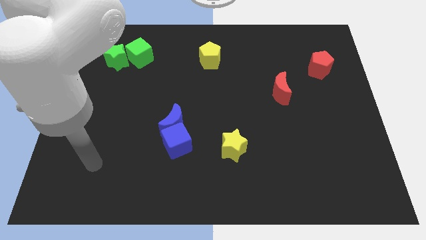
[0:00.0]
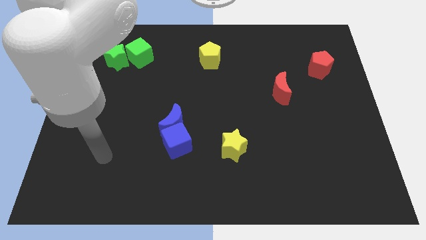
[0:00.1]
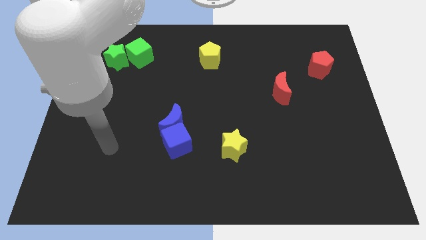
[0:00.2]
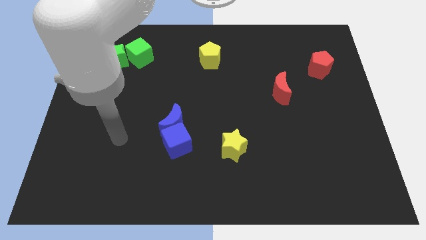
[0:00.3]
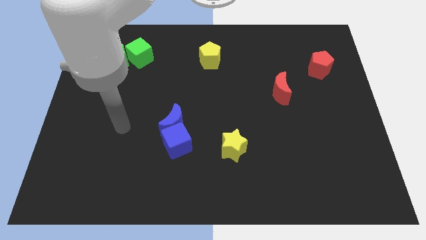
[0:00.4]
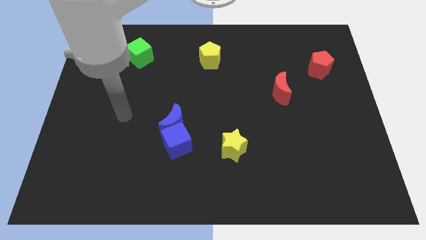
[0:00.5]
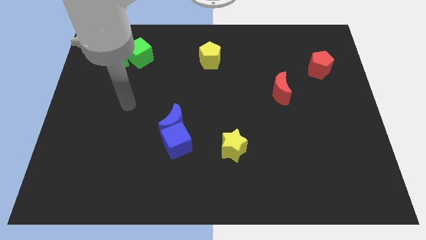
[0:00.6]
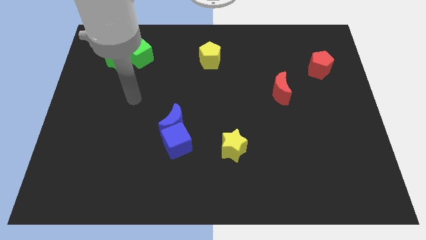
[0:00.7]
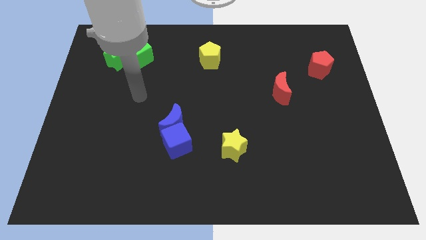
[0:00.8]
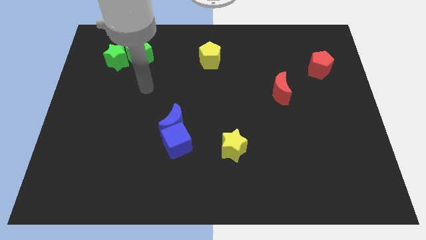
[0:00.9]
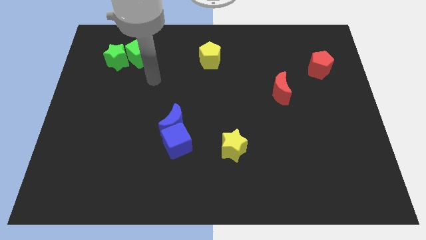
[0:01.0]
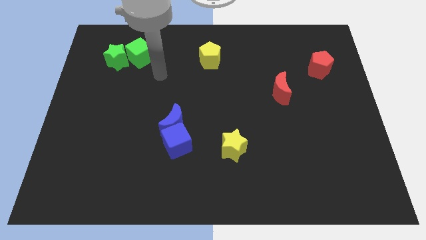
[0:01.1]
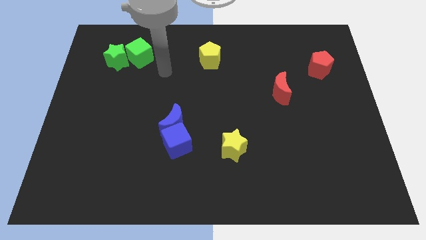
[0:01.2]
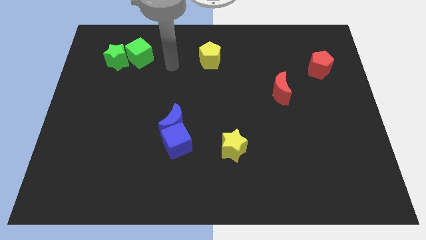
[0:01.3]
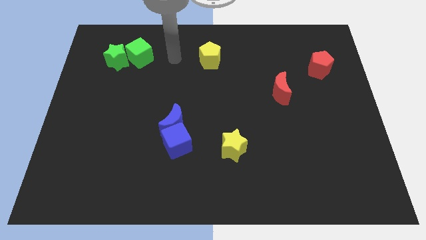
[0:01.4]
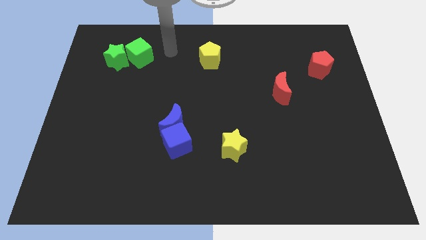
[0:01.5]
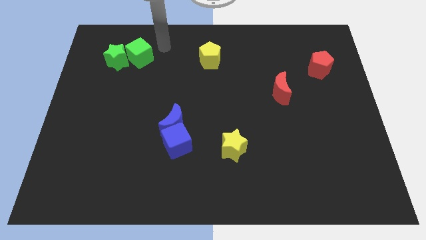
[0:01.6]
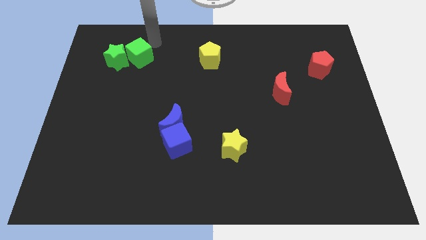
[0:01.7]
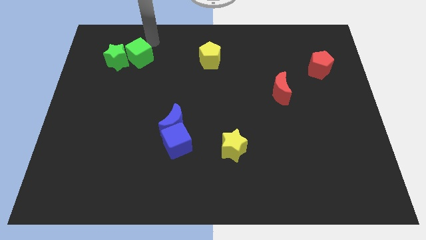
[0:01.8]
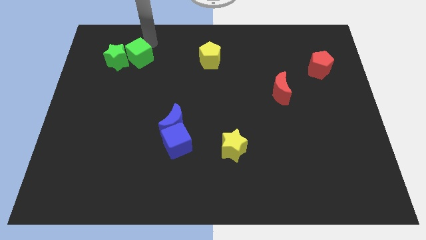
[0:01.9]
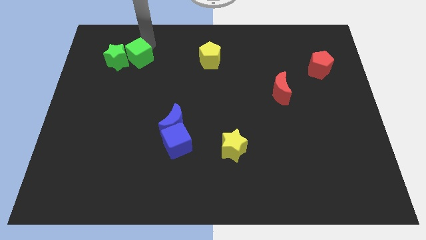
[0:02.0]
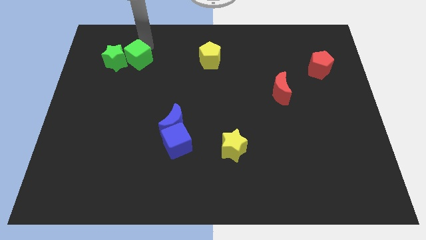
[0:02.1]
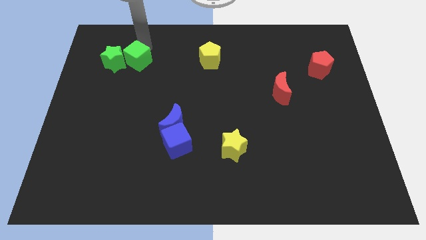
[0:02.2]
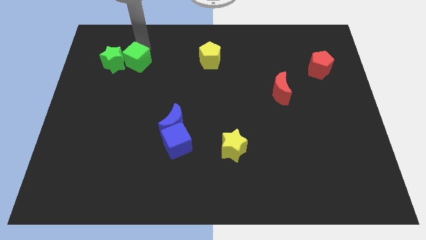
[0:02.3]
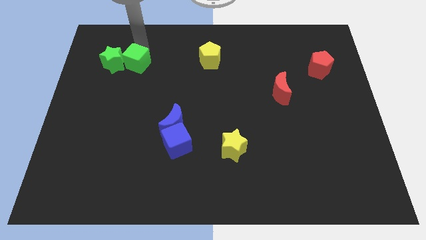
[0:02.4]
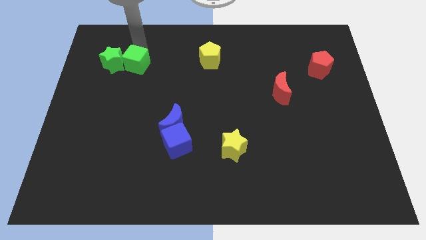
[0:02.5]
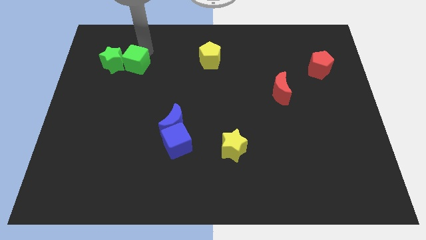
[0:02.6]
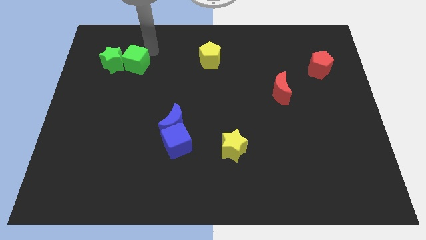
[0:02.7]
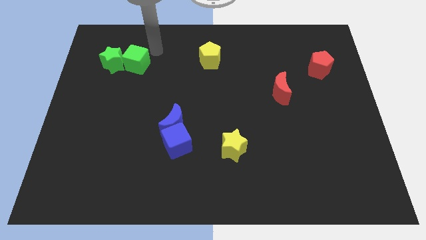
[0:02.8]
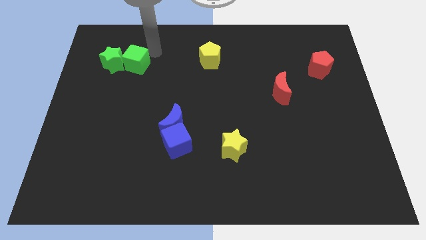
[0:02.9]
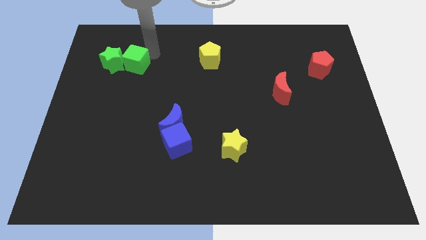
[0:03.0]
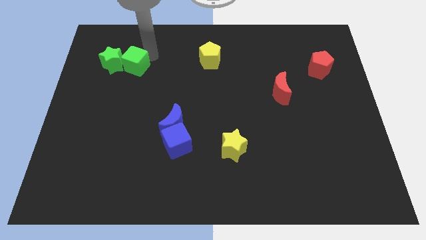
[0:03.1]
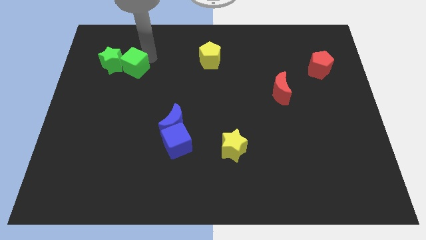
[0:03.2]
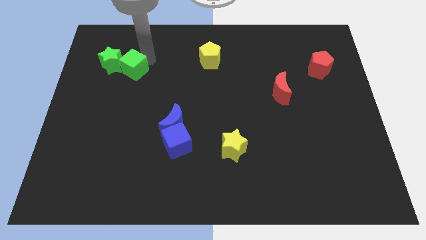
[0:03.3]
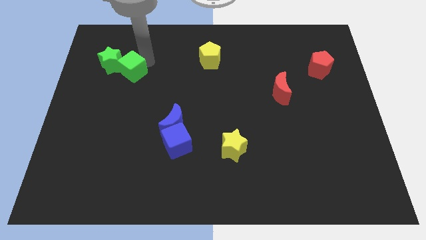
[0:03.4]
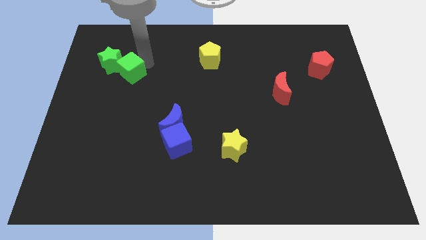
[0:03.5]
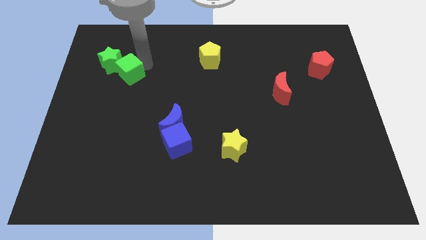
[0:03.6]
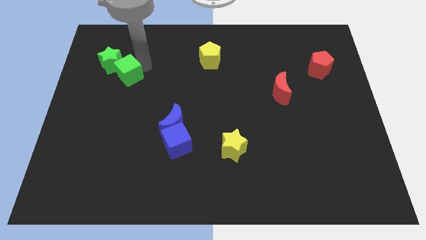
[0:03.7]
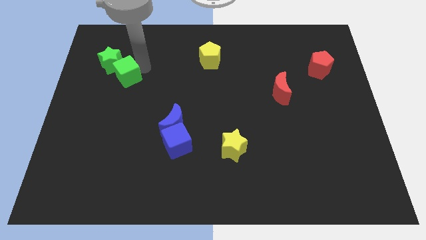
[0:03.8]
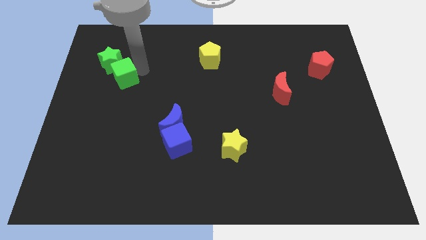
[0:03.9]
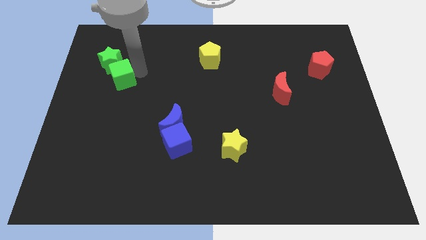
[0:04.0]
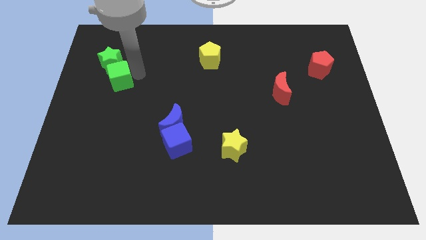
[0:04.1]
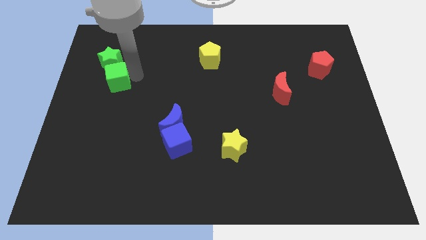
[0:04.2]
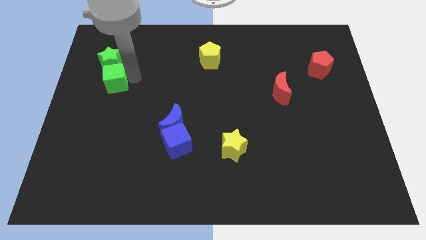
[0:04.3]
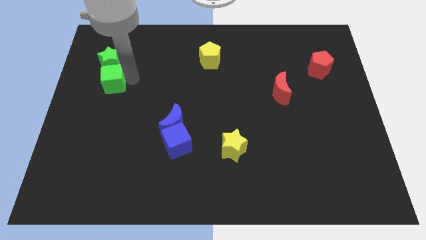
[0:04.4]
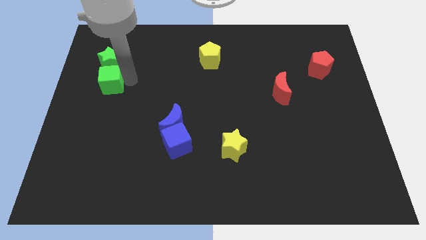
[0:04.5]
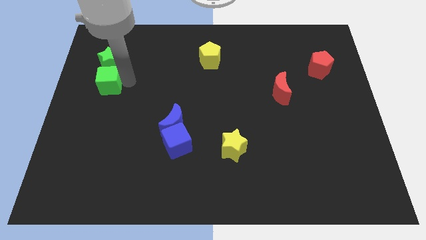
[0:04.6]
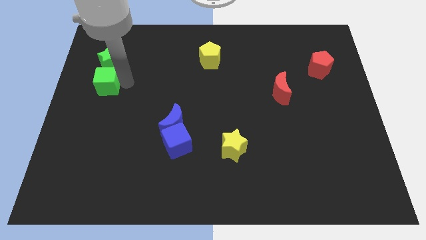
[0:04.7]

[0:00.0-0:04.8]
move the green cube to the left side of the board

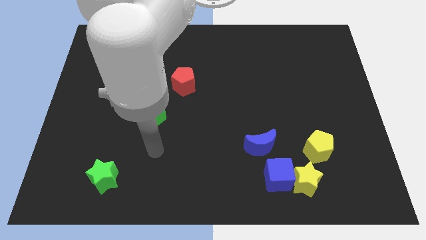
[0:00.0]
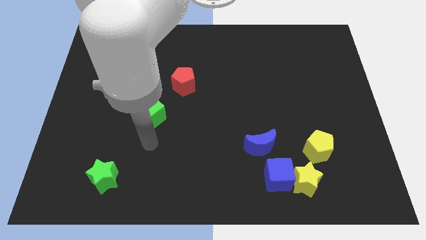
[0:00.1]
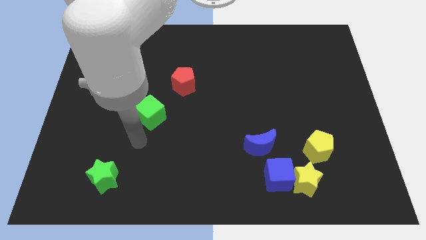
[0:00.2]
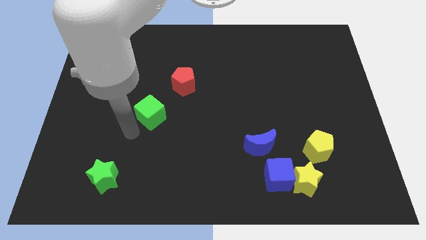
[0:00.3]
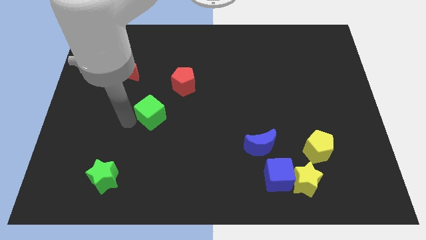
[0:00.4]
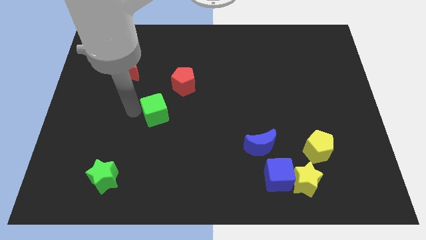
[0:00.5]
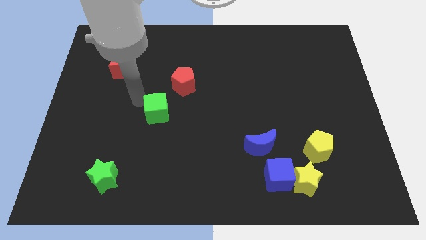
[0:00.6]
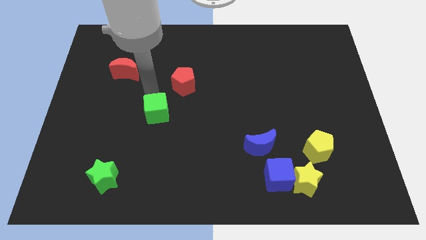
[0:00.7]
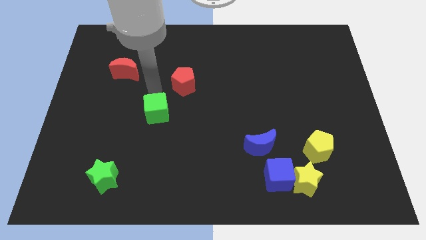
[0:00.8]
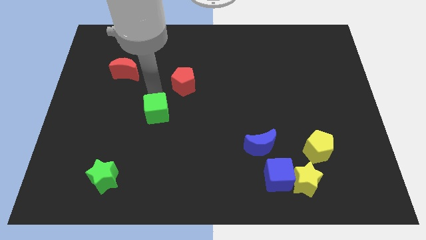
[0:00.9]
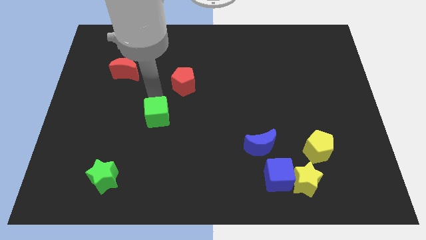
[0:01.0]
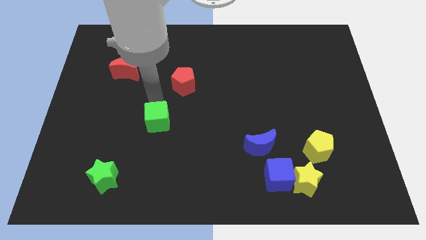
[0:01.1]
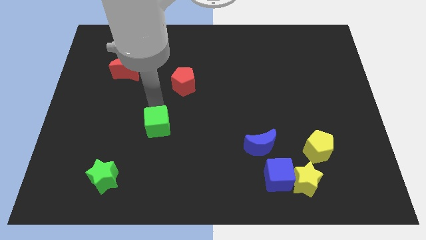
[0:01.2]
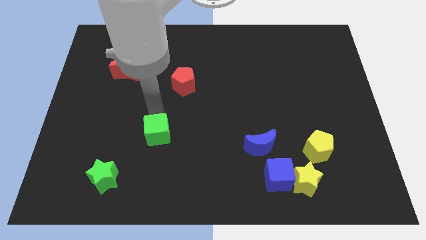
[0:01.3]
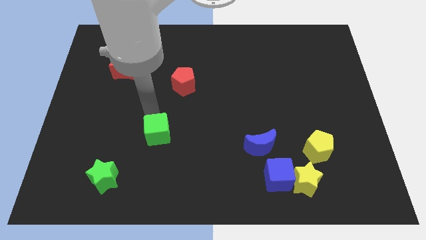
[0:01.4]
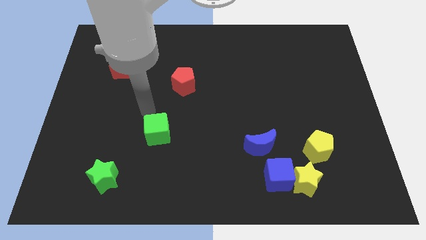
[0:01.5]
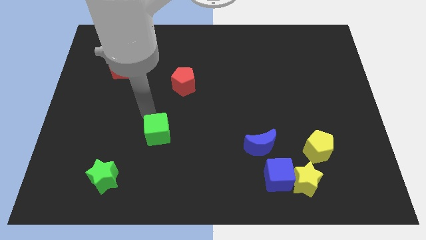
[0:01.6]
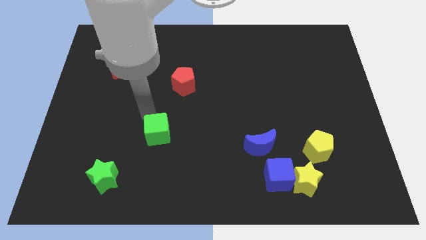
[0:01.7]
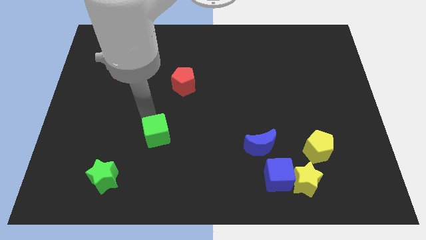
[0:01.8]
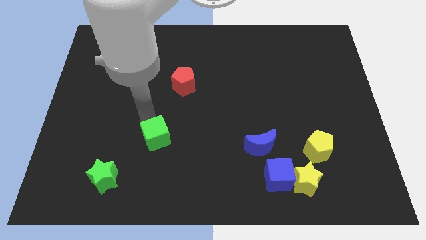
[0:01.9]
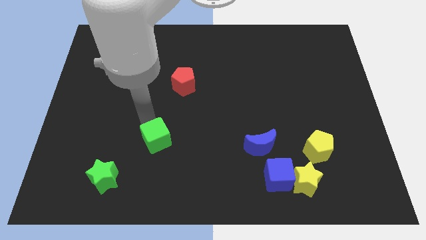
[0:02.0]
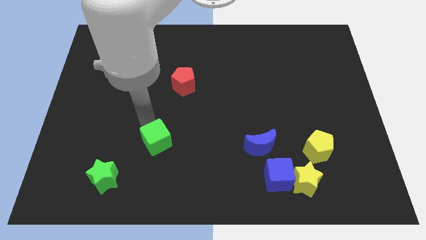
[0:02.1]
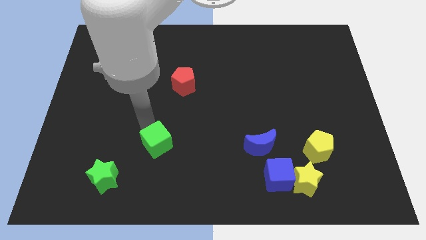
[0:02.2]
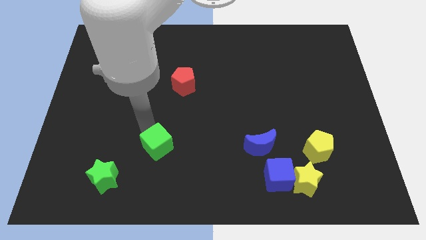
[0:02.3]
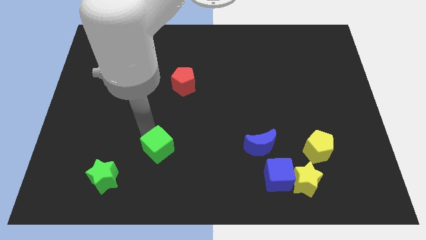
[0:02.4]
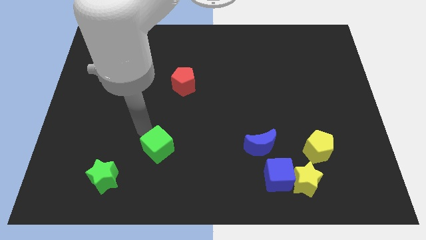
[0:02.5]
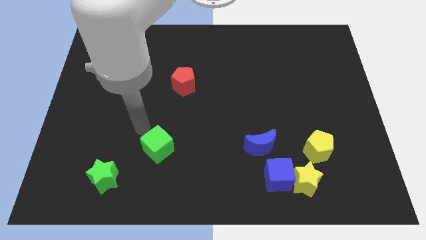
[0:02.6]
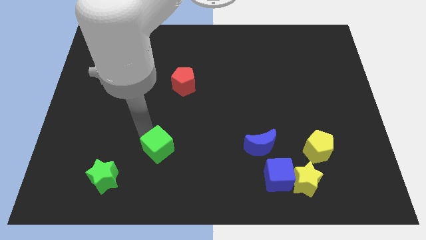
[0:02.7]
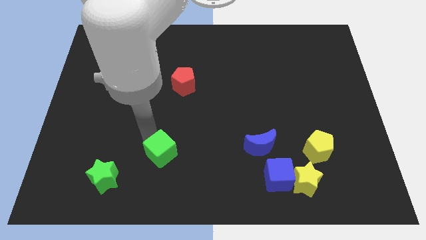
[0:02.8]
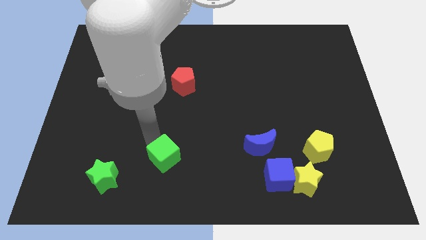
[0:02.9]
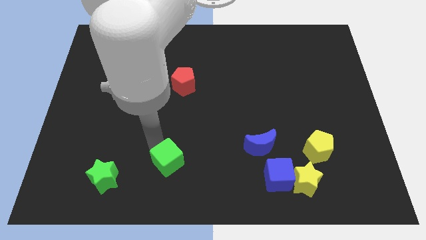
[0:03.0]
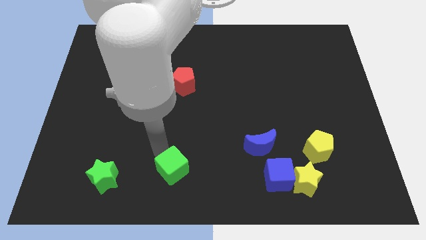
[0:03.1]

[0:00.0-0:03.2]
move the green cube to the bottom

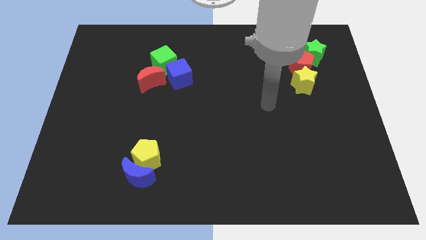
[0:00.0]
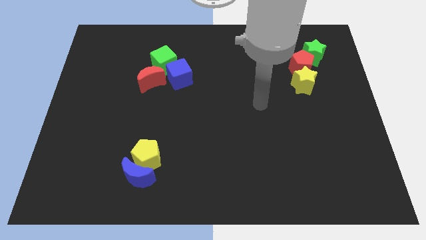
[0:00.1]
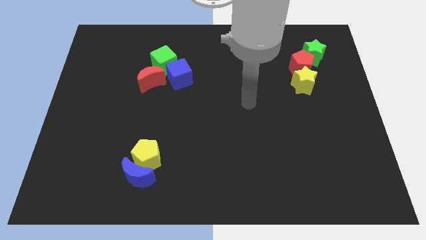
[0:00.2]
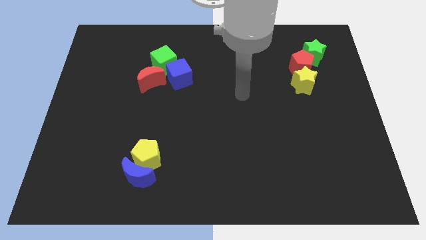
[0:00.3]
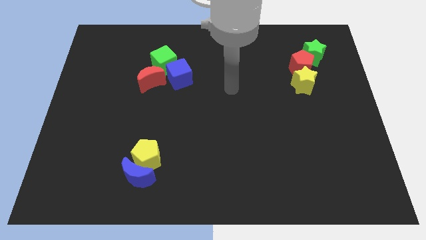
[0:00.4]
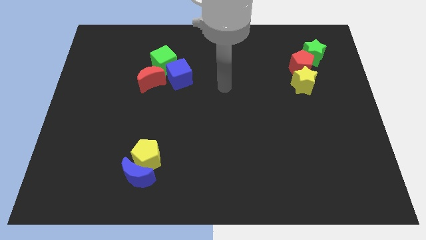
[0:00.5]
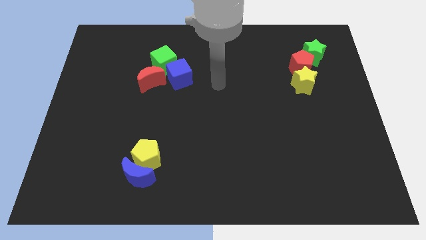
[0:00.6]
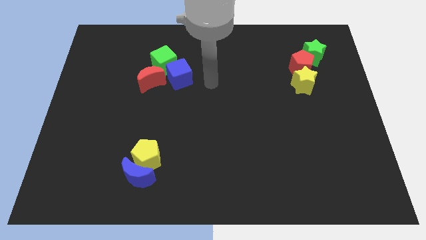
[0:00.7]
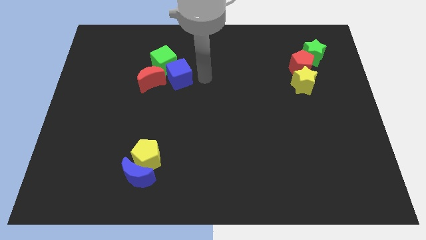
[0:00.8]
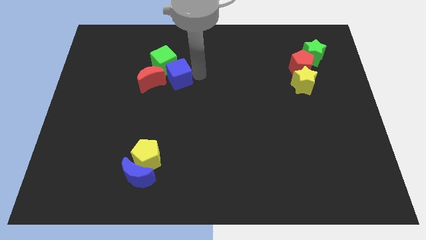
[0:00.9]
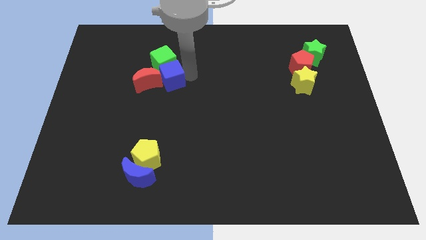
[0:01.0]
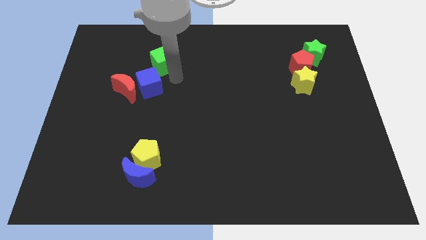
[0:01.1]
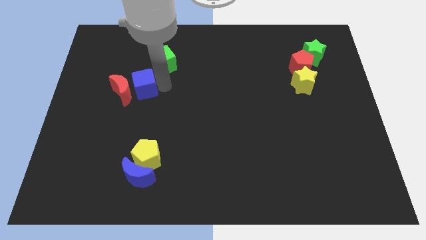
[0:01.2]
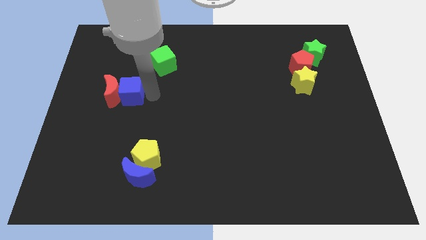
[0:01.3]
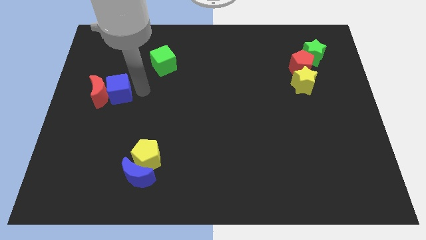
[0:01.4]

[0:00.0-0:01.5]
move the red moon to the left side
